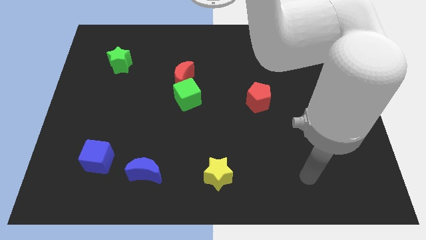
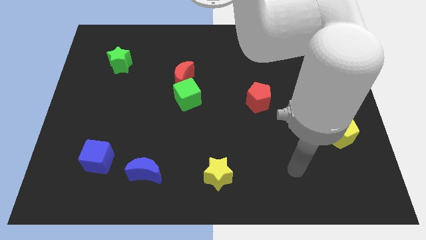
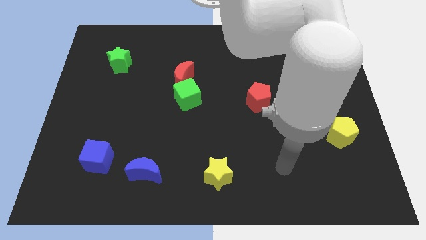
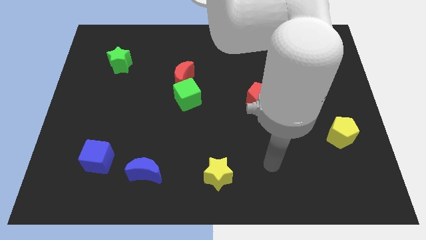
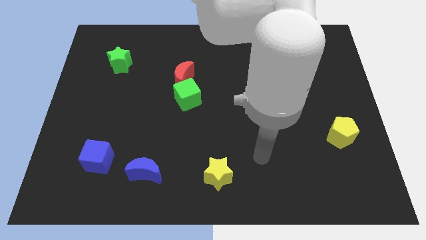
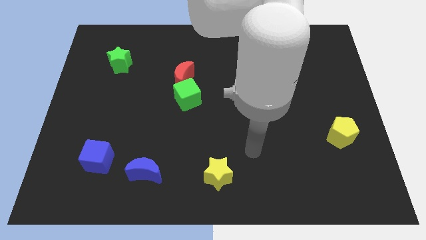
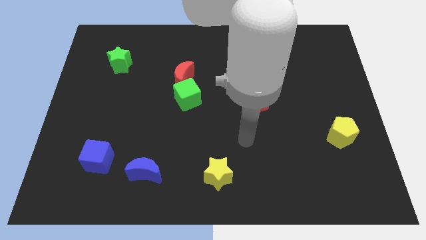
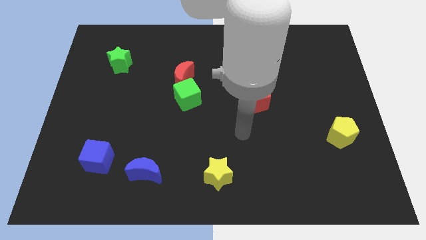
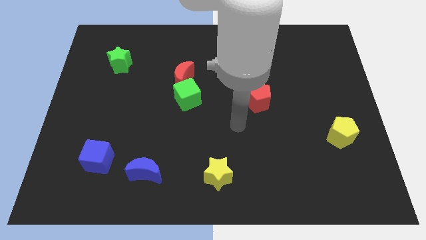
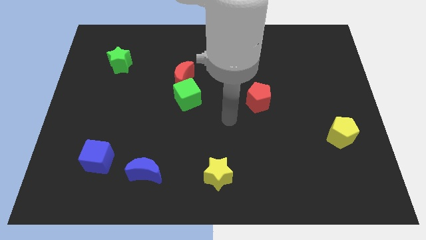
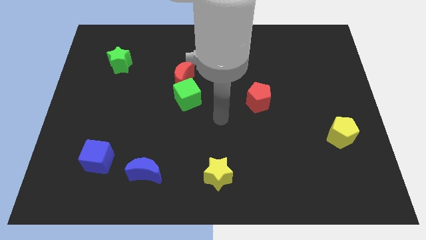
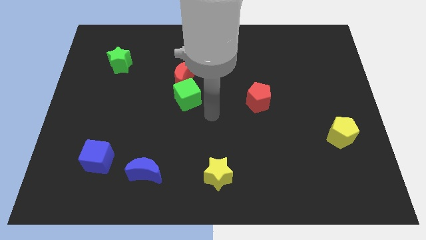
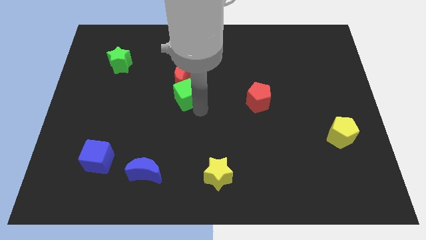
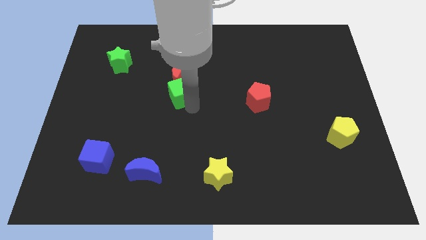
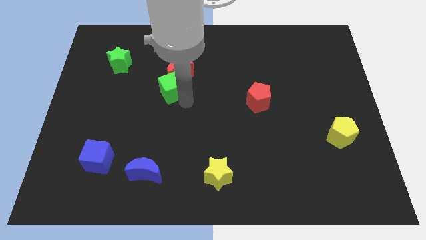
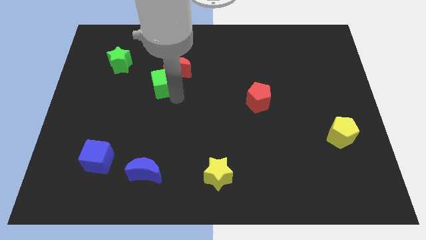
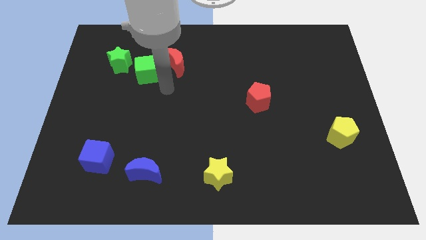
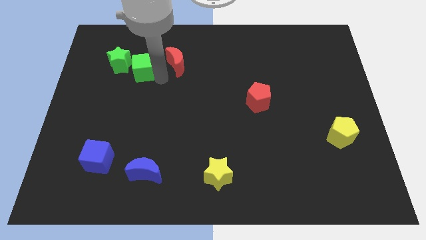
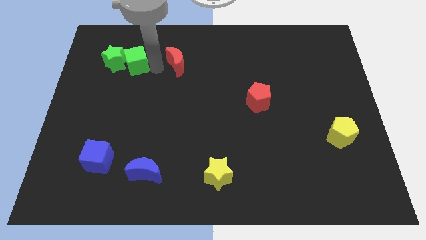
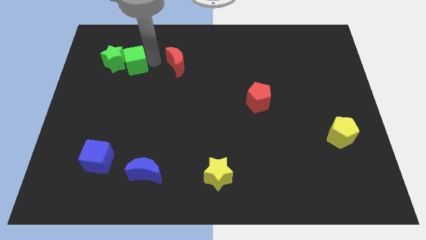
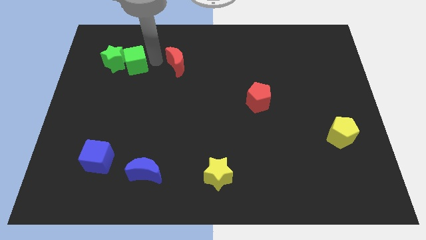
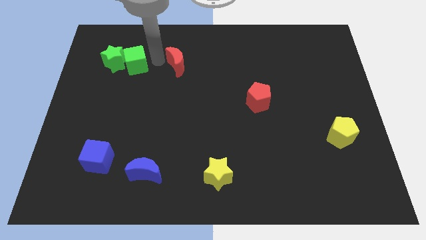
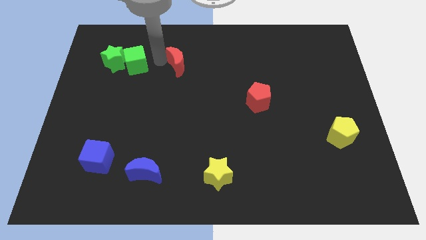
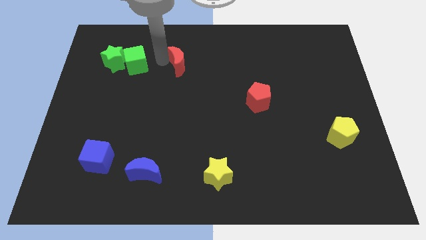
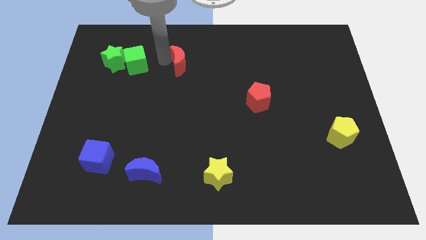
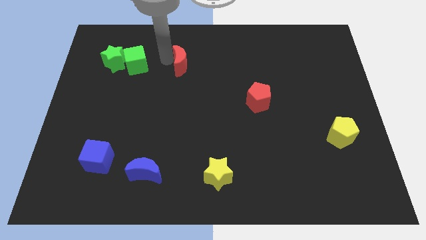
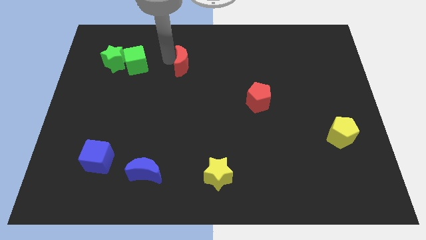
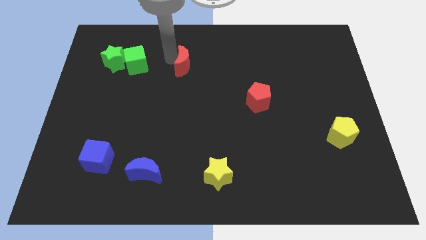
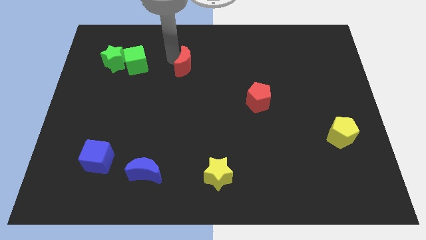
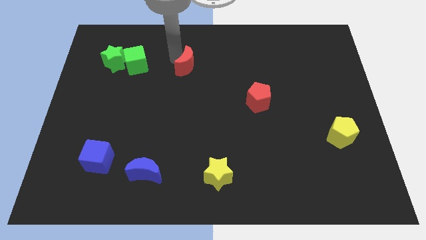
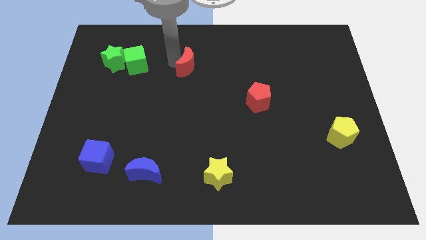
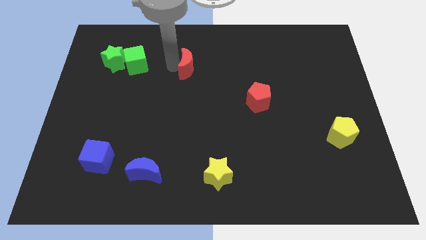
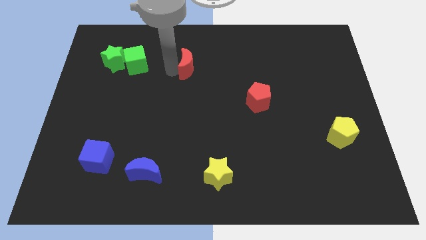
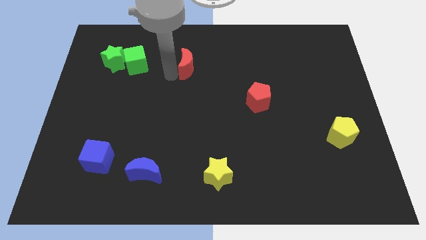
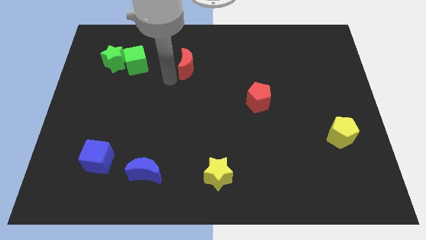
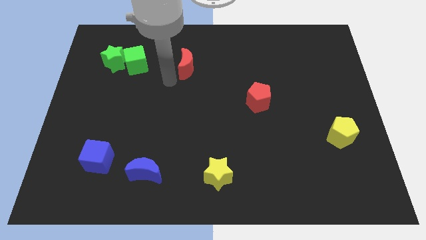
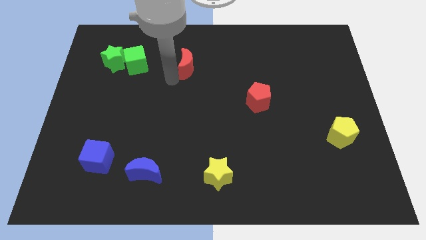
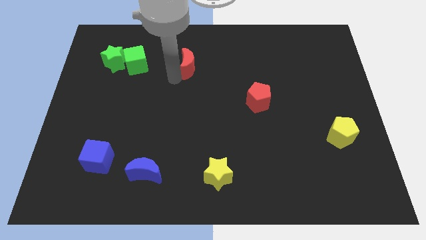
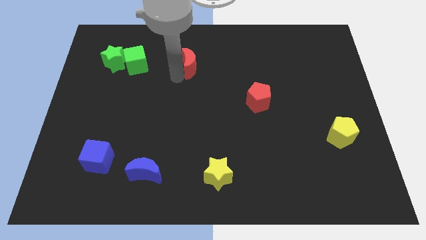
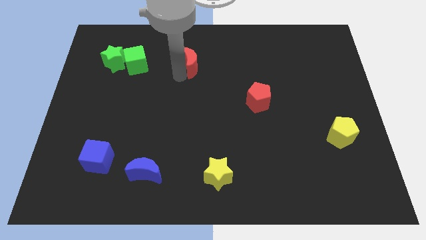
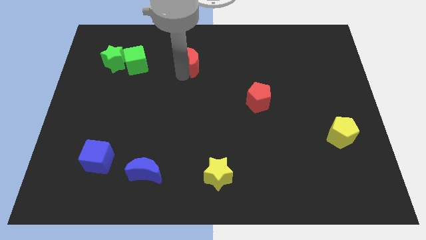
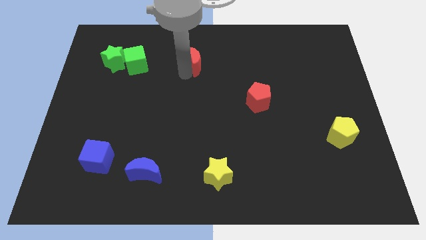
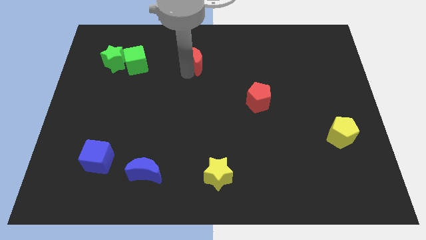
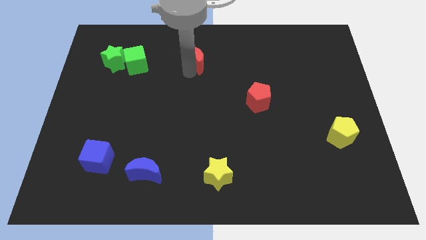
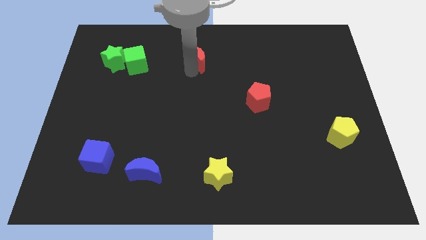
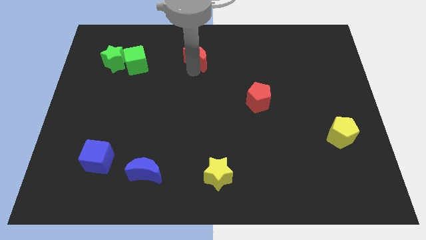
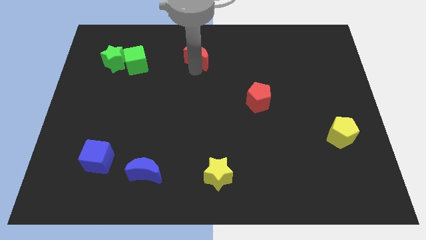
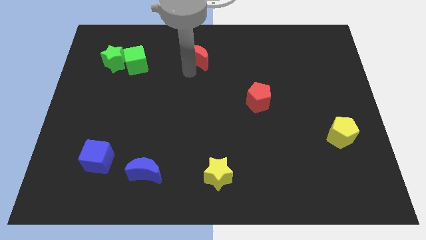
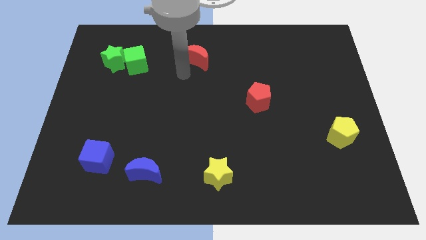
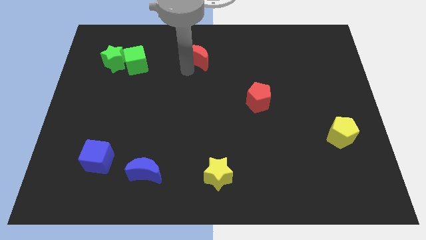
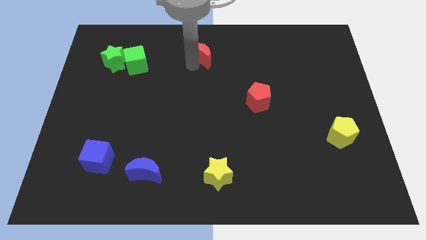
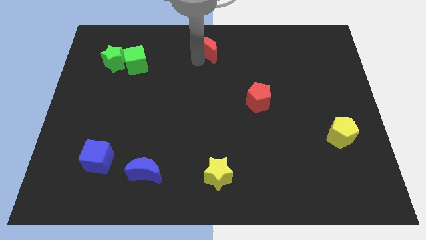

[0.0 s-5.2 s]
put the red moon to the top side

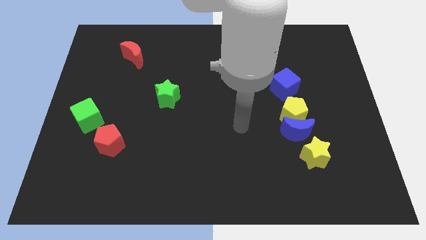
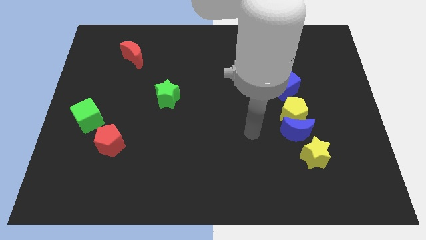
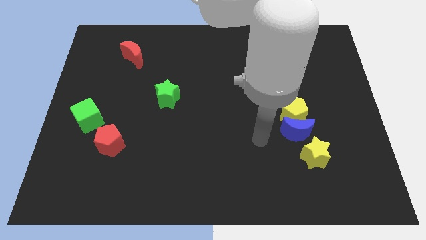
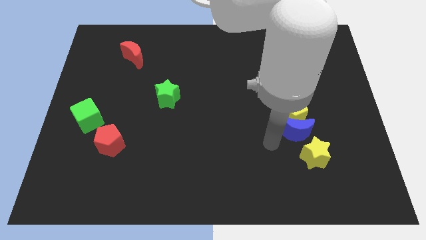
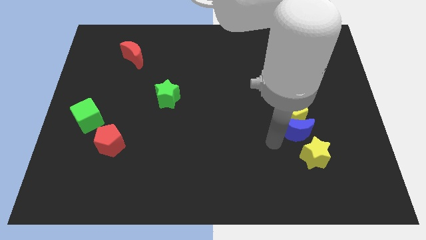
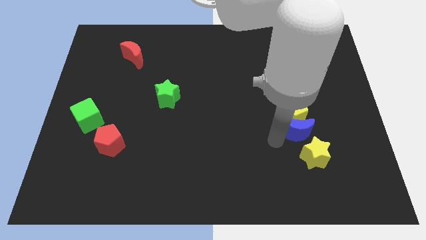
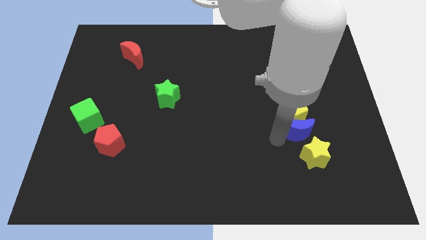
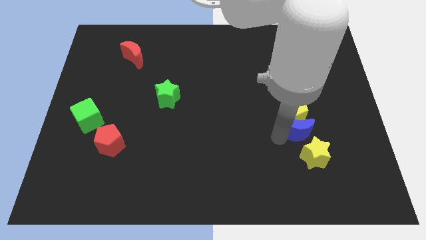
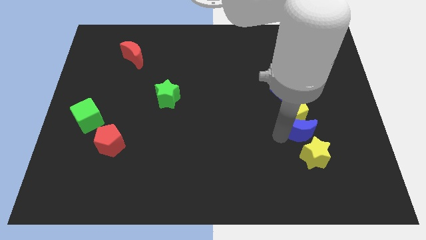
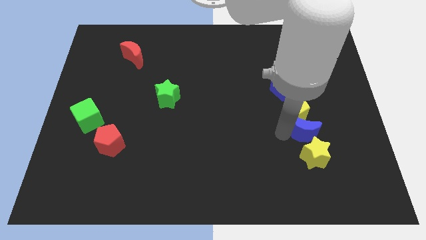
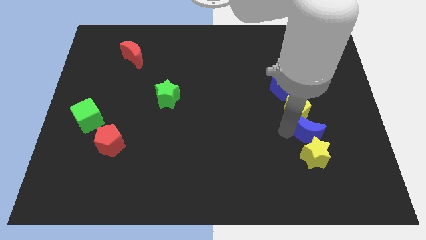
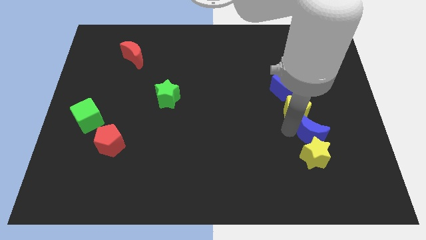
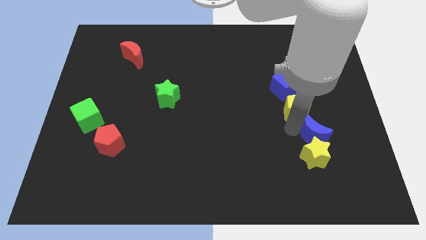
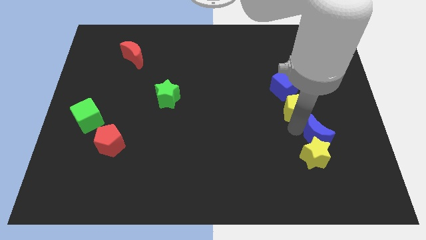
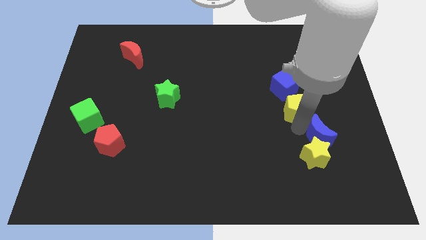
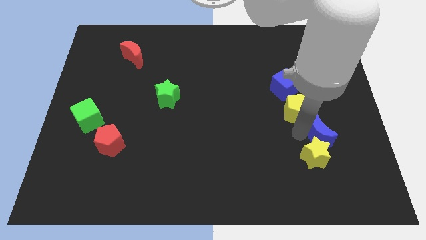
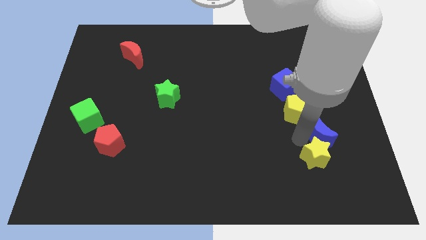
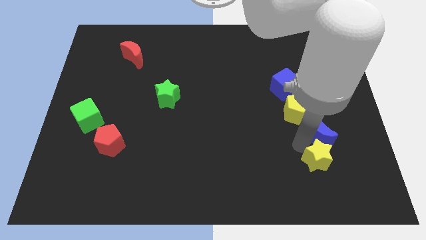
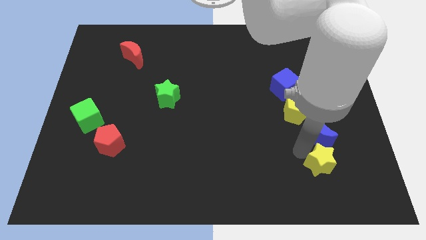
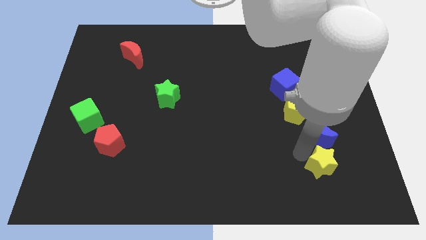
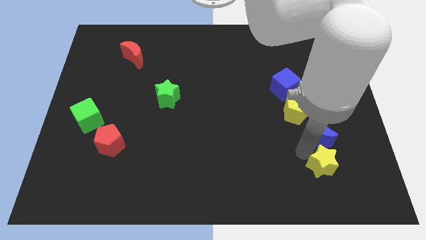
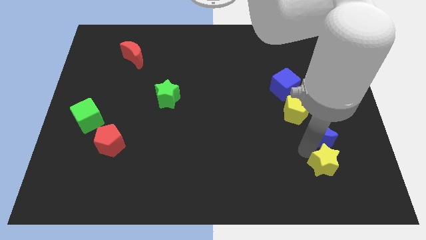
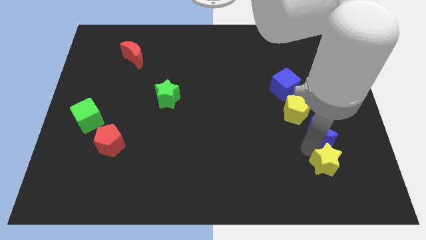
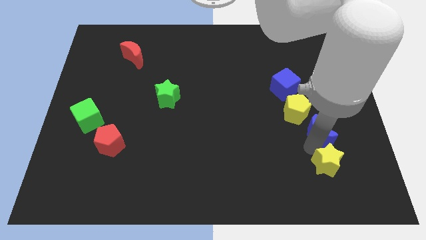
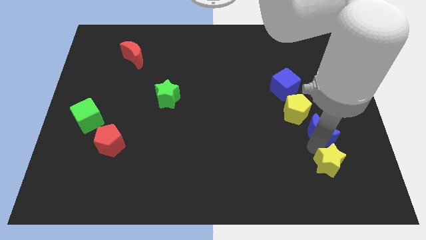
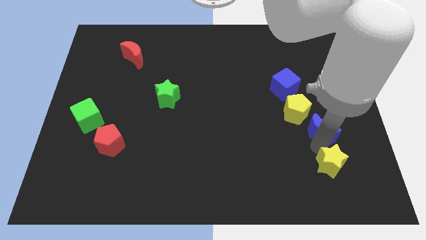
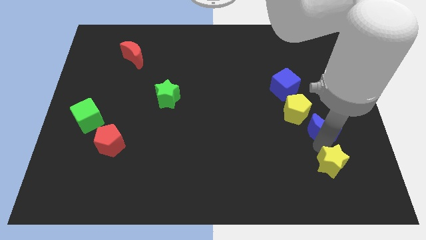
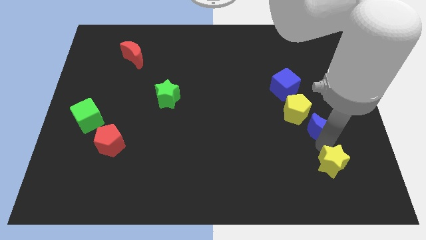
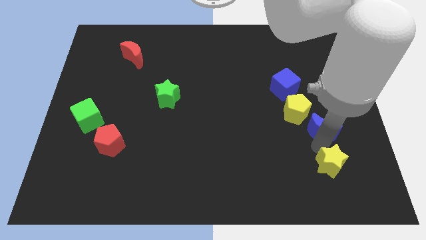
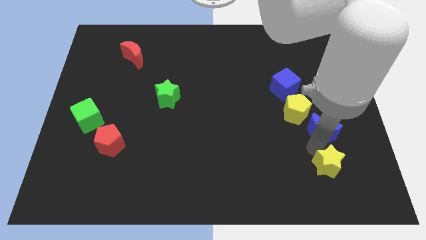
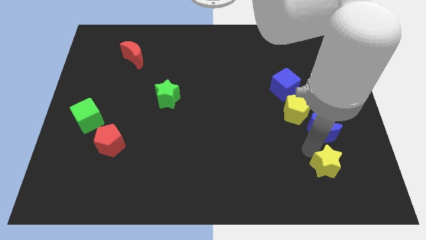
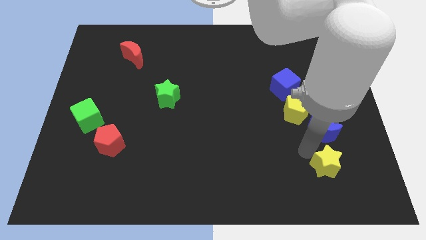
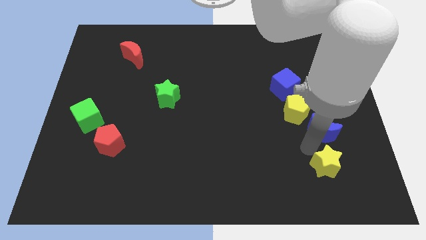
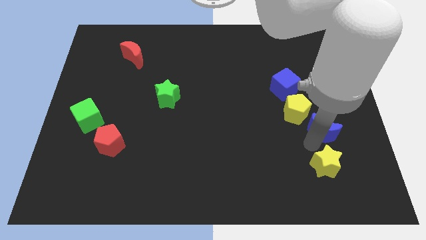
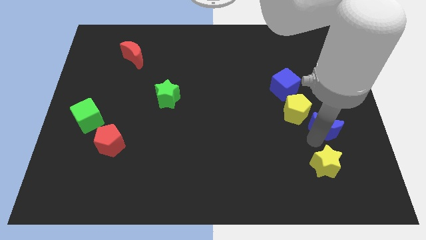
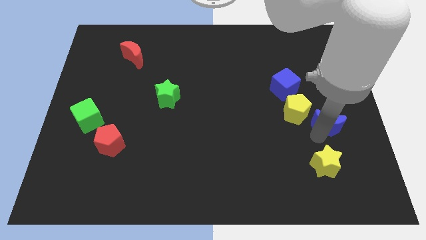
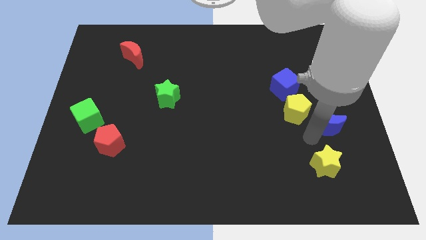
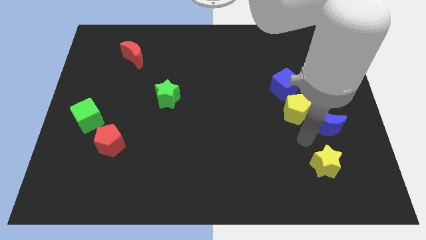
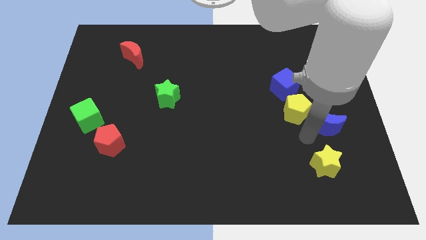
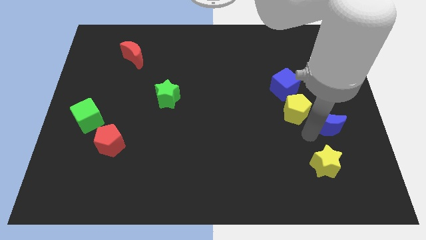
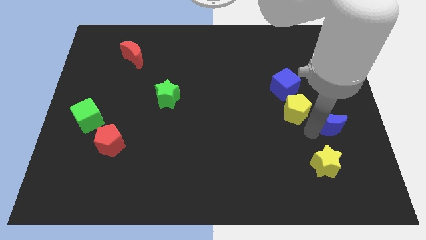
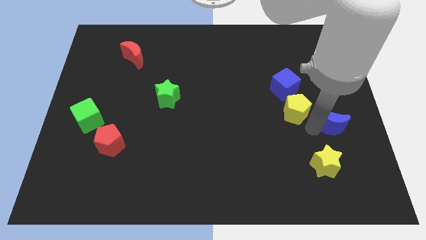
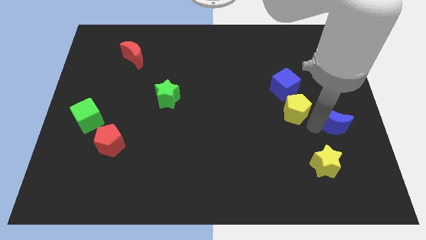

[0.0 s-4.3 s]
push the blue moon to the center right
